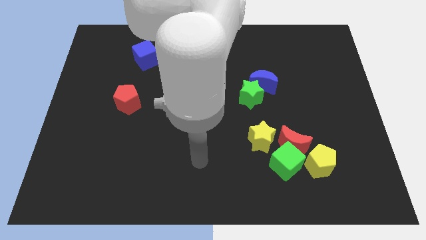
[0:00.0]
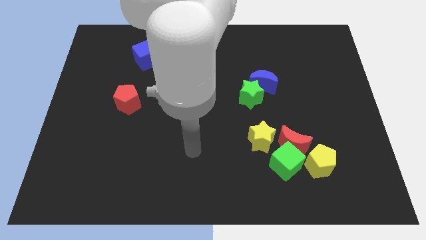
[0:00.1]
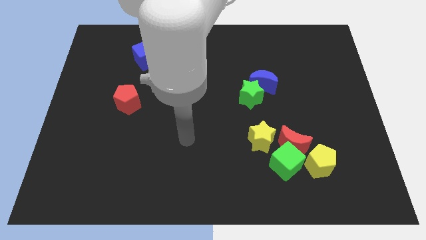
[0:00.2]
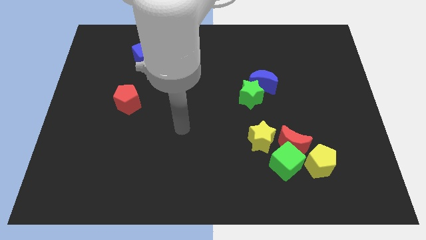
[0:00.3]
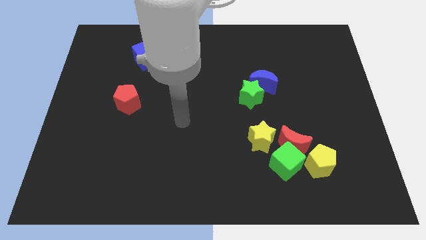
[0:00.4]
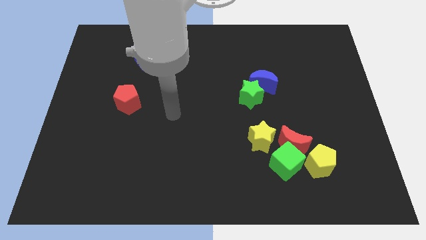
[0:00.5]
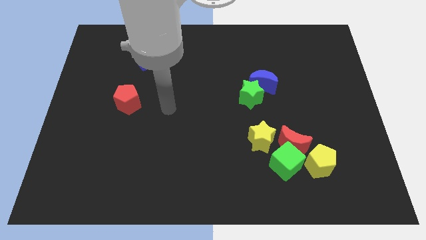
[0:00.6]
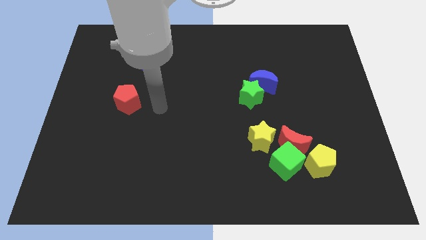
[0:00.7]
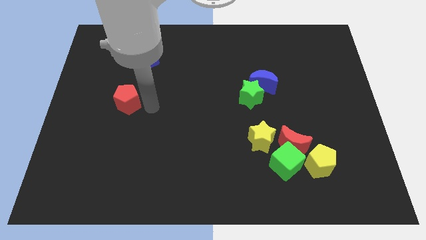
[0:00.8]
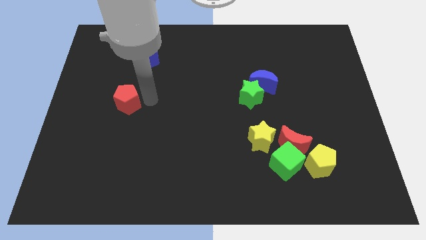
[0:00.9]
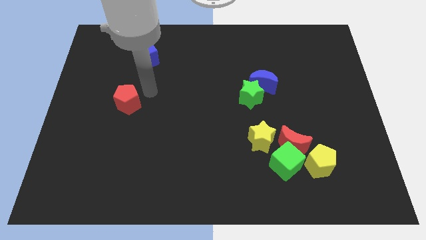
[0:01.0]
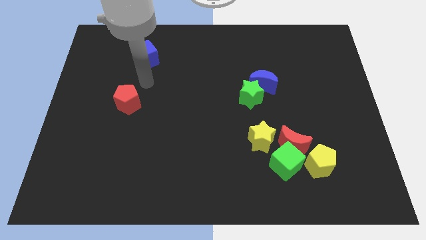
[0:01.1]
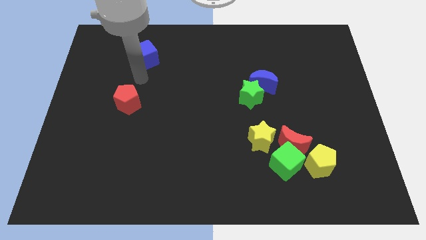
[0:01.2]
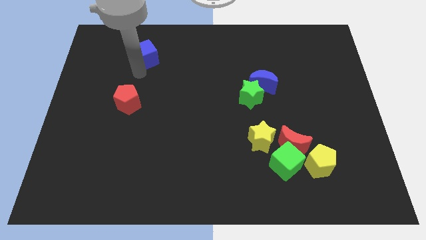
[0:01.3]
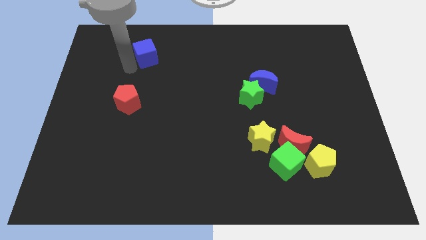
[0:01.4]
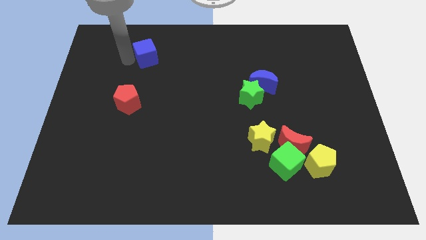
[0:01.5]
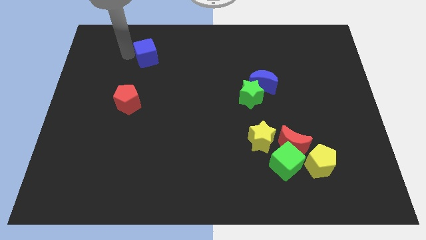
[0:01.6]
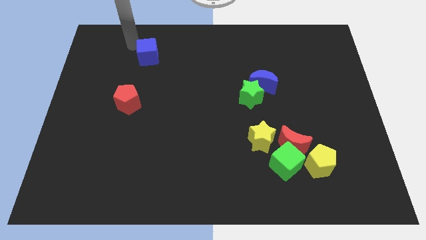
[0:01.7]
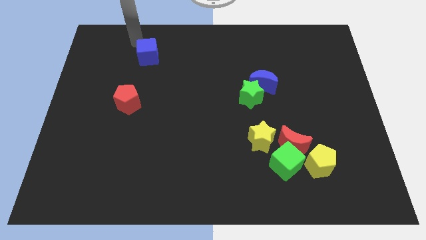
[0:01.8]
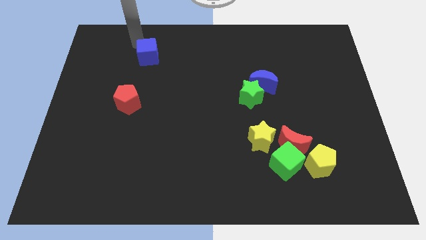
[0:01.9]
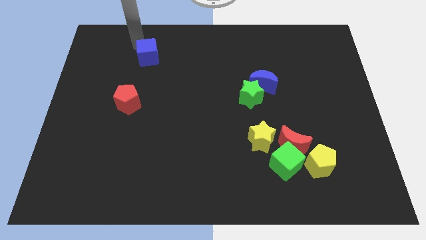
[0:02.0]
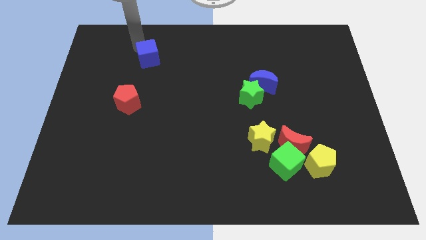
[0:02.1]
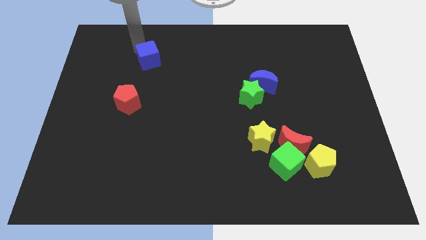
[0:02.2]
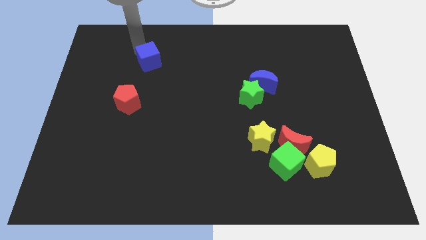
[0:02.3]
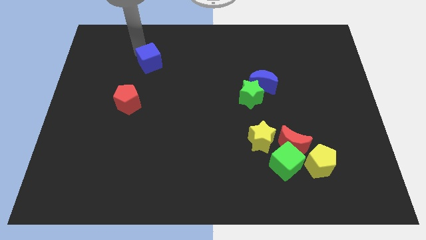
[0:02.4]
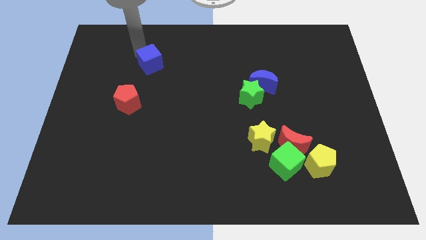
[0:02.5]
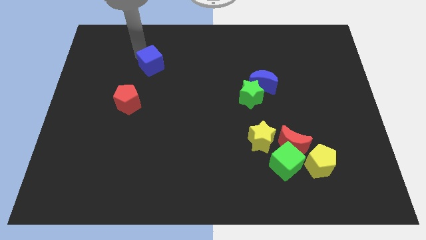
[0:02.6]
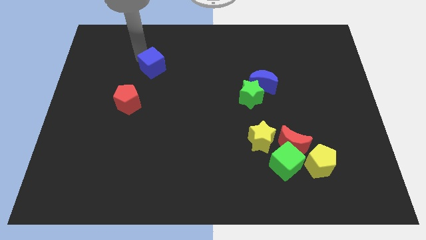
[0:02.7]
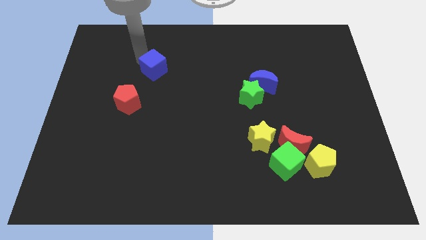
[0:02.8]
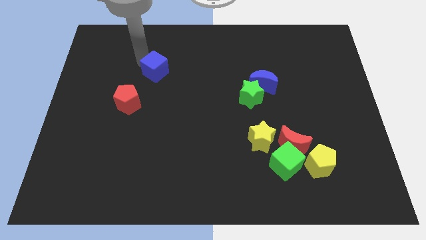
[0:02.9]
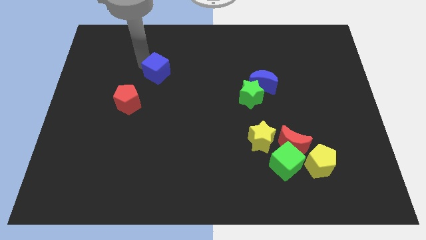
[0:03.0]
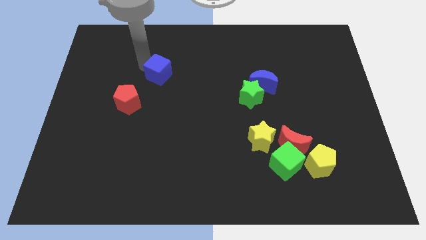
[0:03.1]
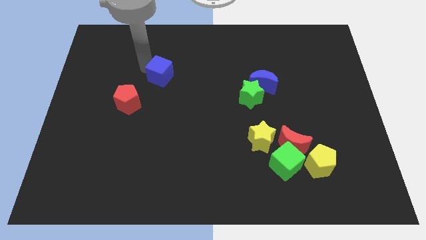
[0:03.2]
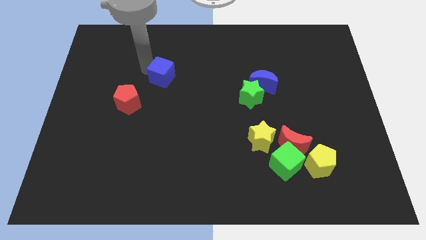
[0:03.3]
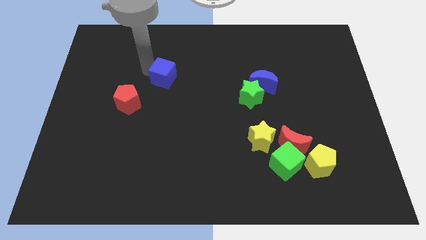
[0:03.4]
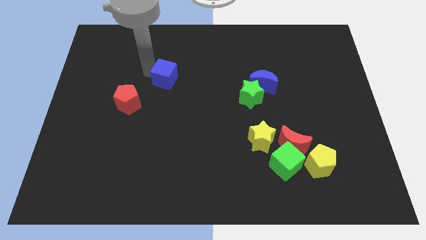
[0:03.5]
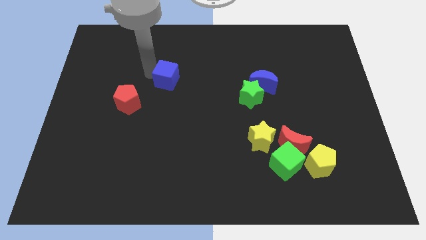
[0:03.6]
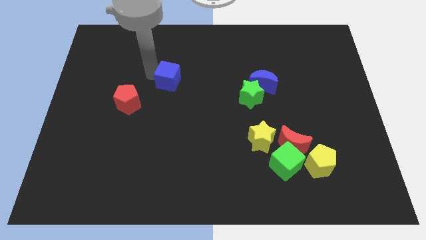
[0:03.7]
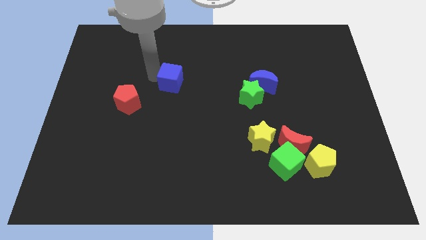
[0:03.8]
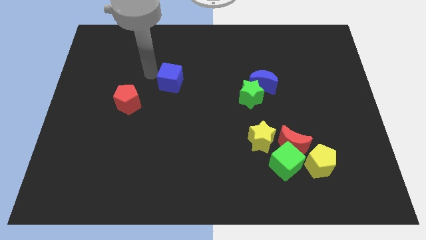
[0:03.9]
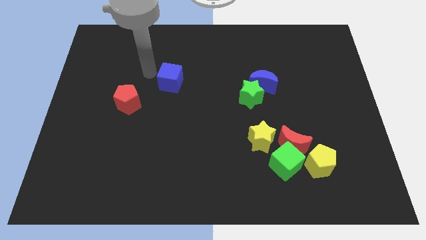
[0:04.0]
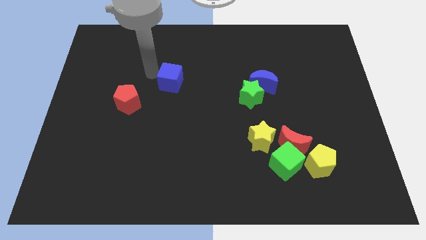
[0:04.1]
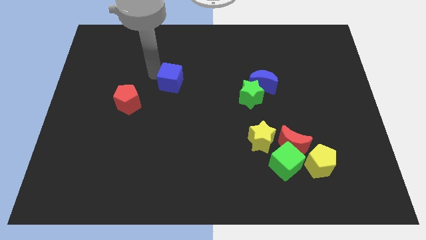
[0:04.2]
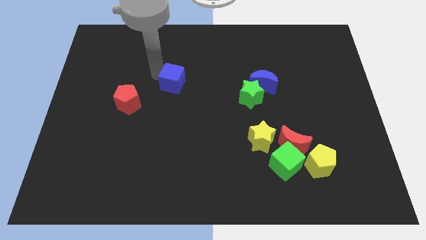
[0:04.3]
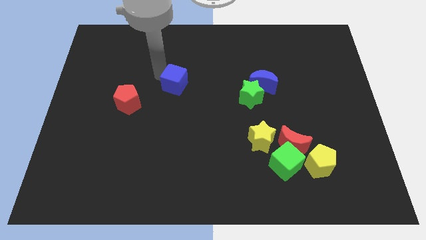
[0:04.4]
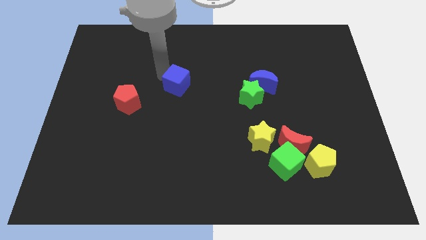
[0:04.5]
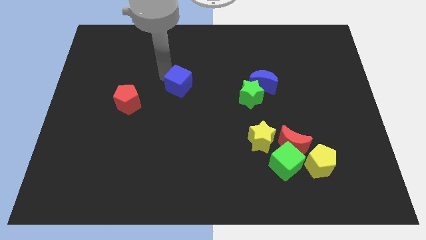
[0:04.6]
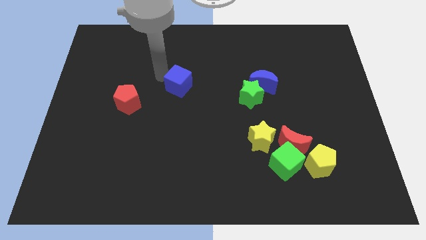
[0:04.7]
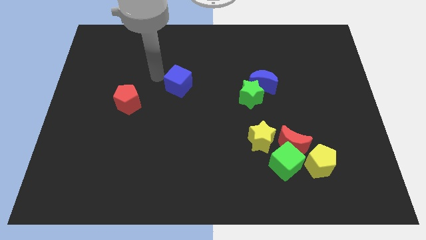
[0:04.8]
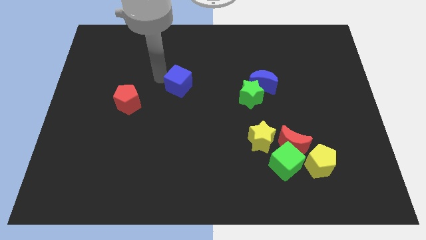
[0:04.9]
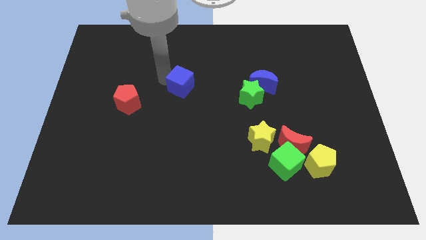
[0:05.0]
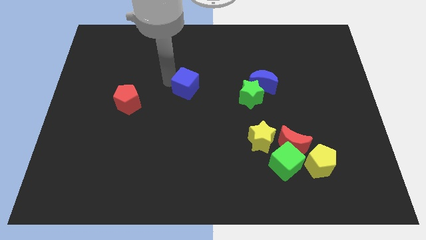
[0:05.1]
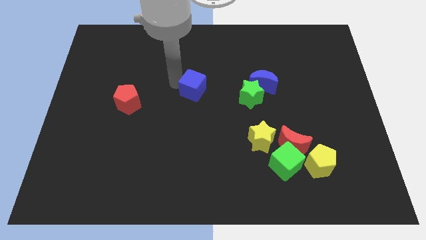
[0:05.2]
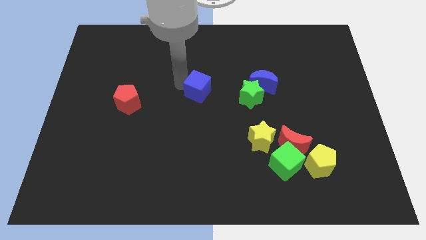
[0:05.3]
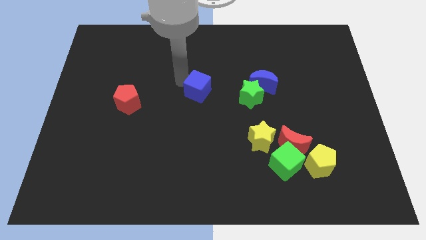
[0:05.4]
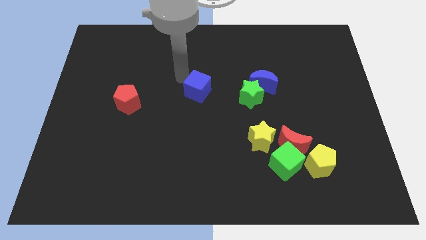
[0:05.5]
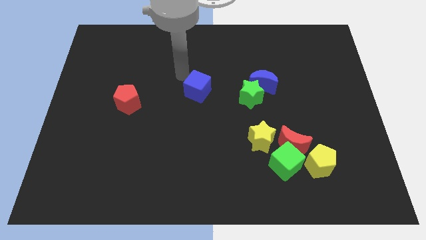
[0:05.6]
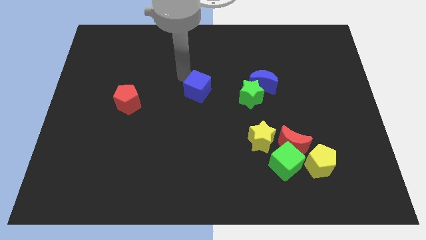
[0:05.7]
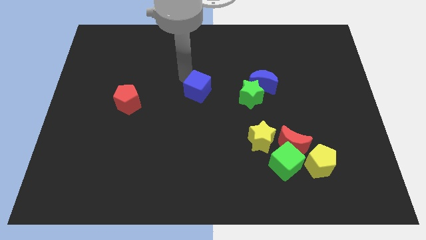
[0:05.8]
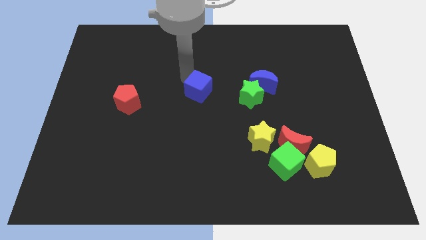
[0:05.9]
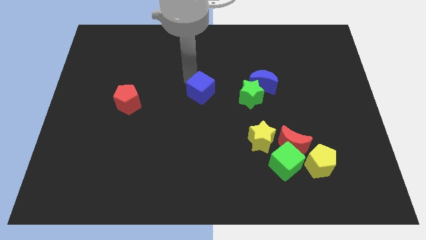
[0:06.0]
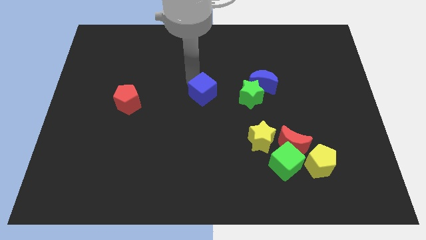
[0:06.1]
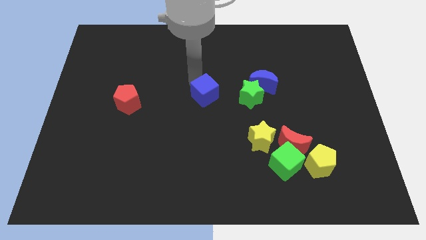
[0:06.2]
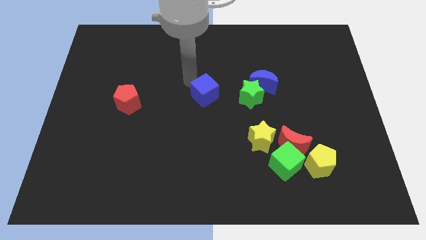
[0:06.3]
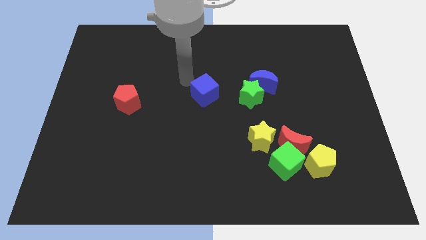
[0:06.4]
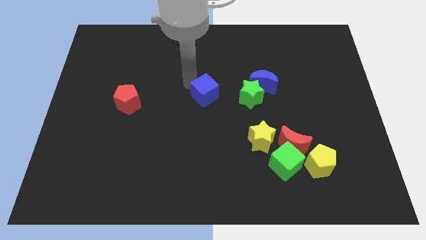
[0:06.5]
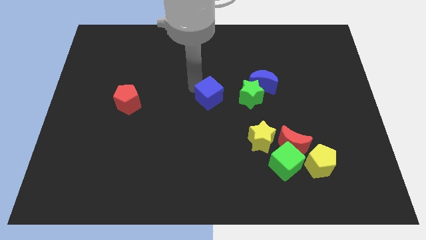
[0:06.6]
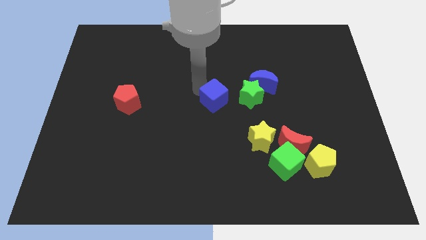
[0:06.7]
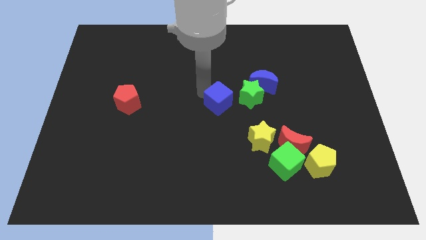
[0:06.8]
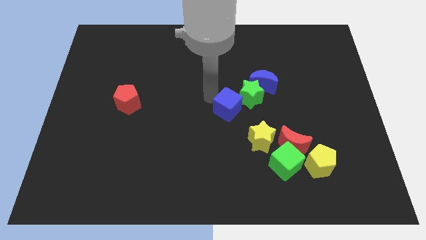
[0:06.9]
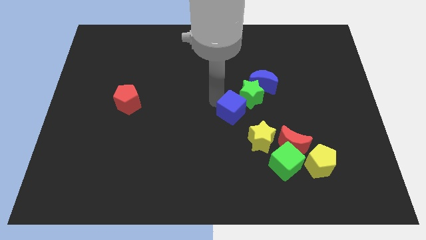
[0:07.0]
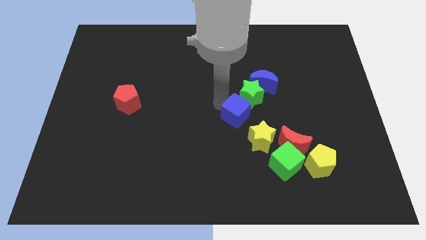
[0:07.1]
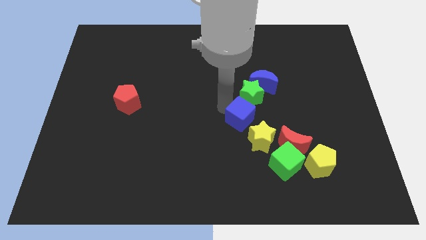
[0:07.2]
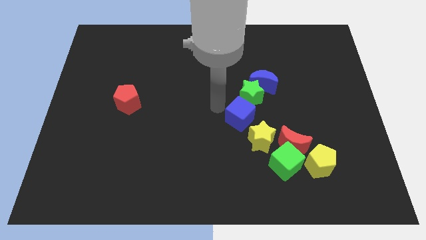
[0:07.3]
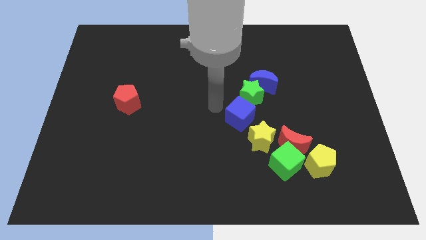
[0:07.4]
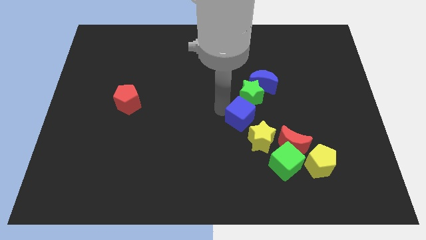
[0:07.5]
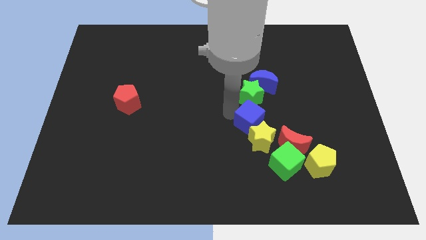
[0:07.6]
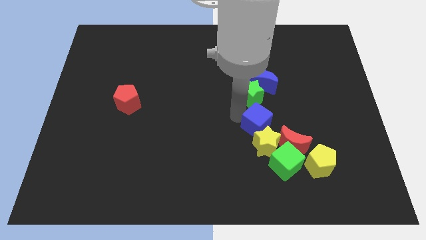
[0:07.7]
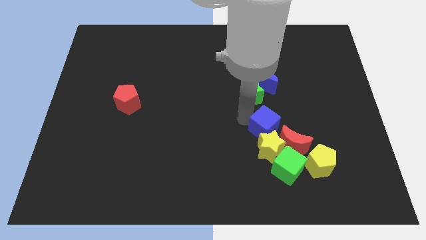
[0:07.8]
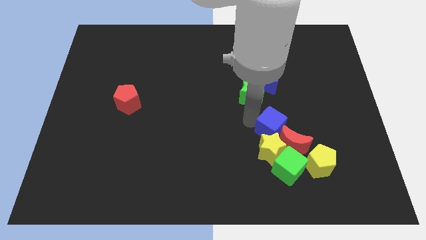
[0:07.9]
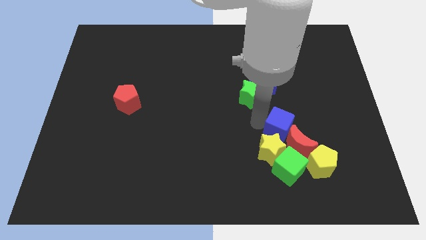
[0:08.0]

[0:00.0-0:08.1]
put the blue cube close to the red moon
